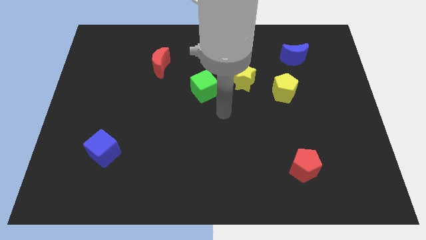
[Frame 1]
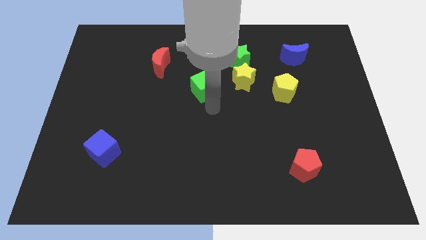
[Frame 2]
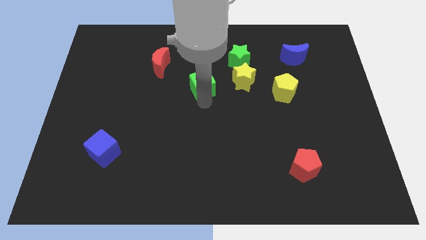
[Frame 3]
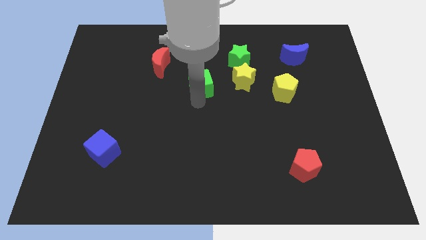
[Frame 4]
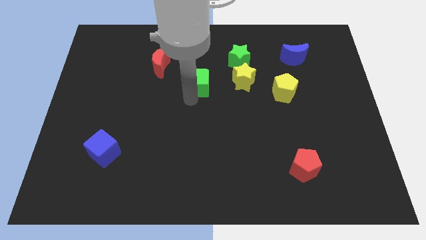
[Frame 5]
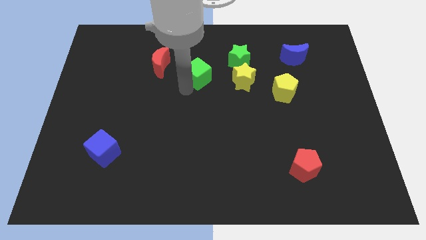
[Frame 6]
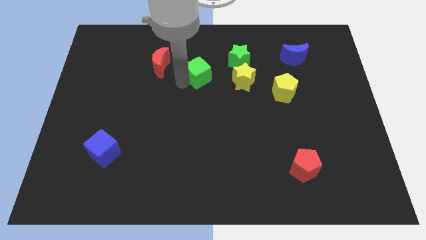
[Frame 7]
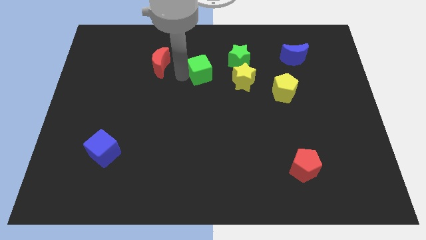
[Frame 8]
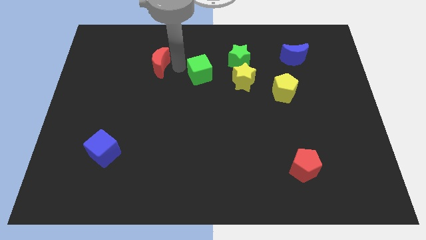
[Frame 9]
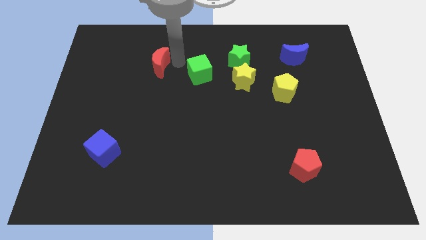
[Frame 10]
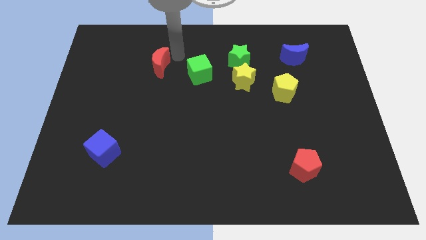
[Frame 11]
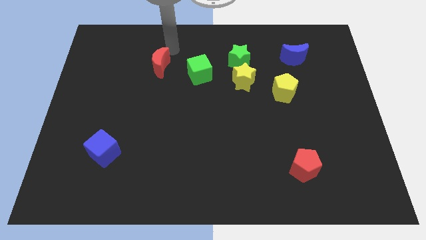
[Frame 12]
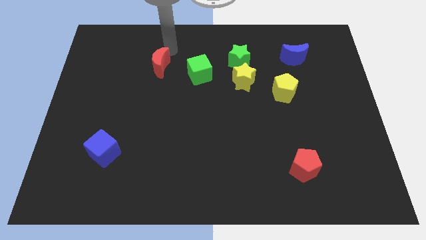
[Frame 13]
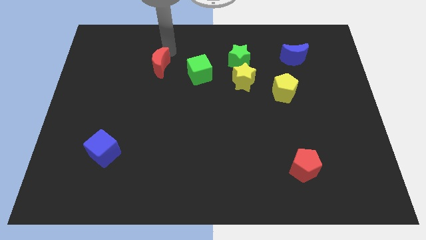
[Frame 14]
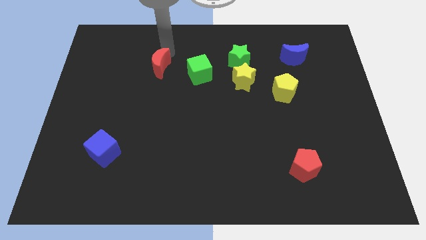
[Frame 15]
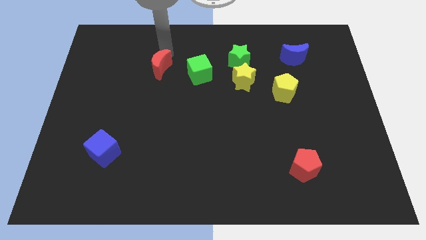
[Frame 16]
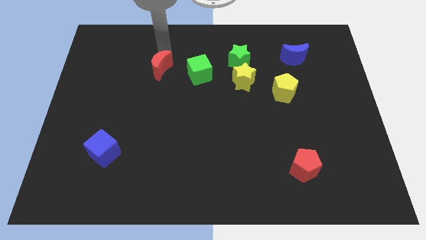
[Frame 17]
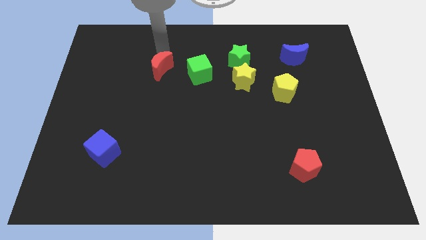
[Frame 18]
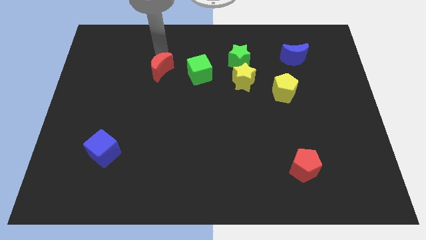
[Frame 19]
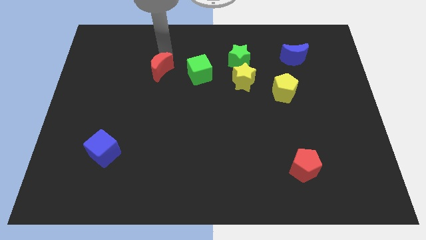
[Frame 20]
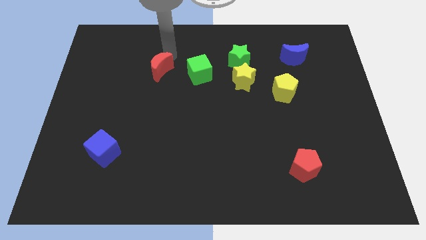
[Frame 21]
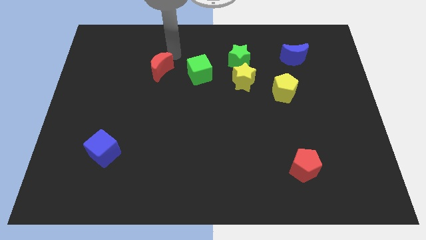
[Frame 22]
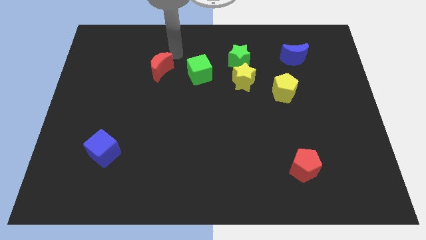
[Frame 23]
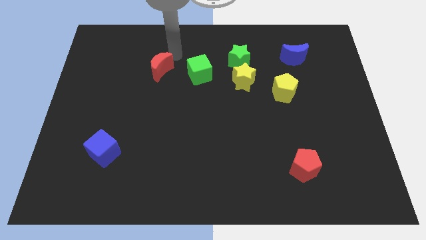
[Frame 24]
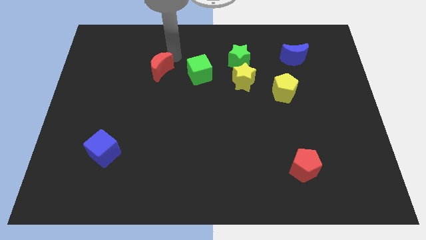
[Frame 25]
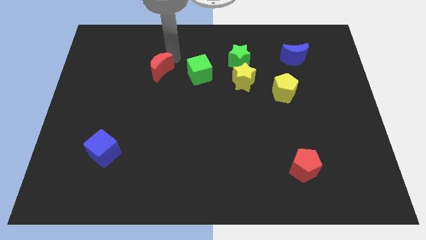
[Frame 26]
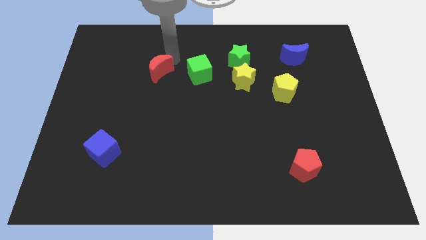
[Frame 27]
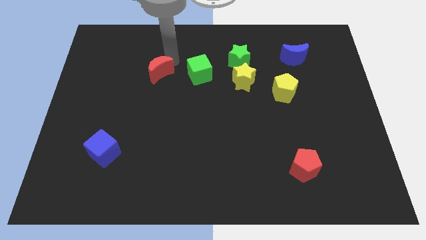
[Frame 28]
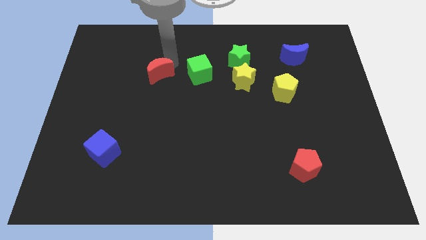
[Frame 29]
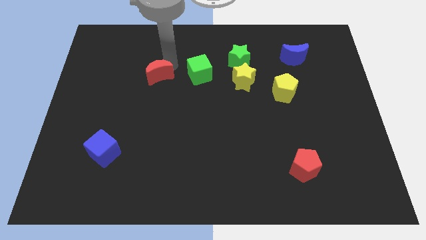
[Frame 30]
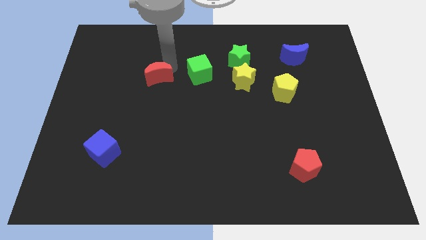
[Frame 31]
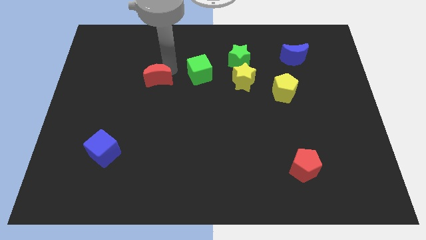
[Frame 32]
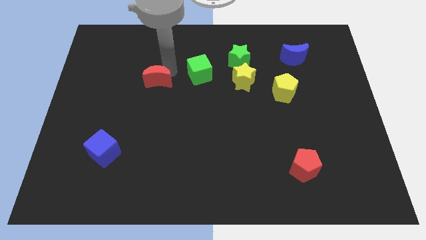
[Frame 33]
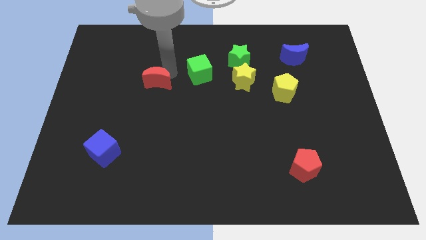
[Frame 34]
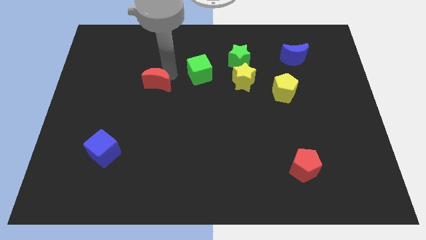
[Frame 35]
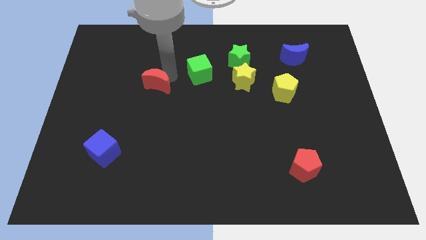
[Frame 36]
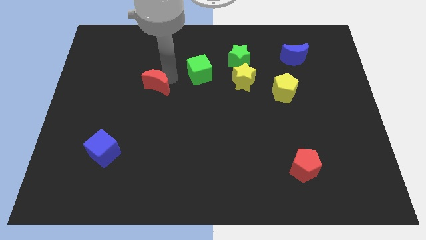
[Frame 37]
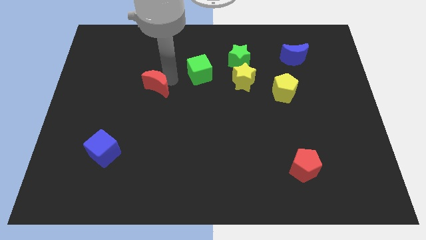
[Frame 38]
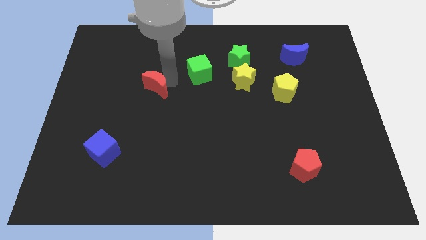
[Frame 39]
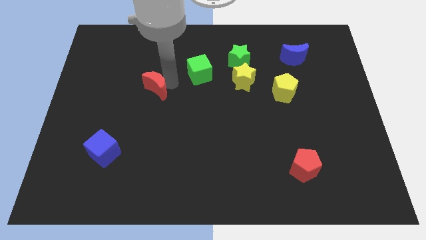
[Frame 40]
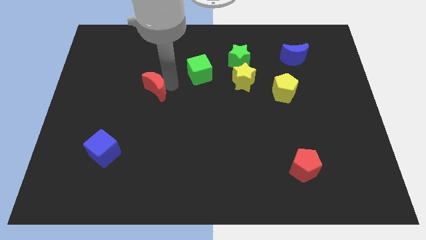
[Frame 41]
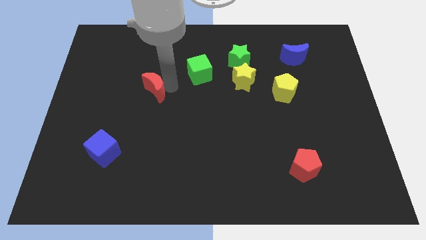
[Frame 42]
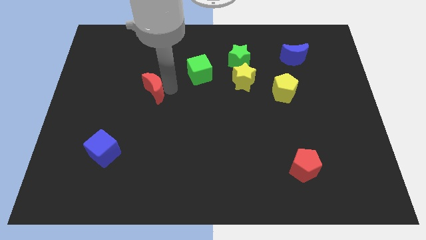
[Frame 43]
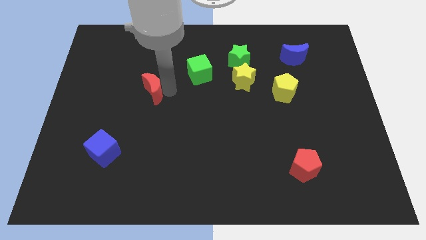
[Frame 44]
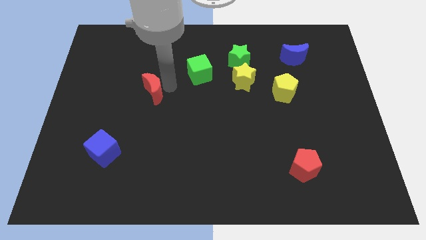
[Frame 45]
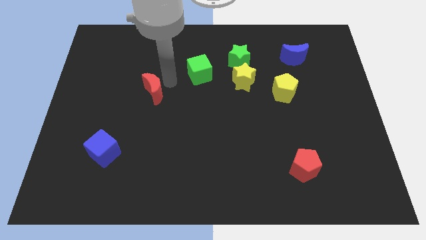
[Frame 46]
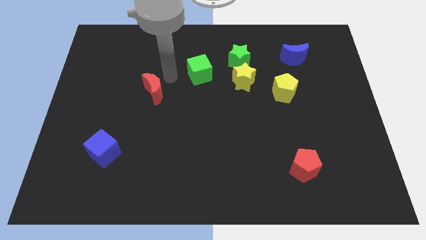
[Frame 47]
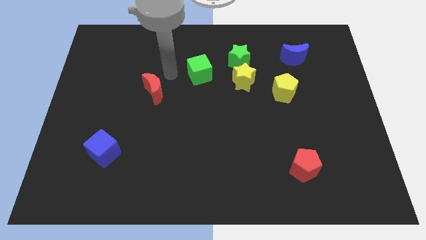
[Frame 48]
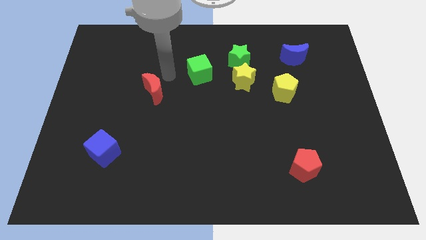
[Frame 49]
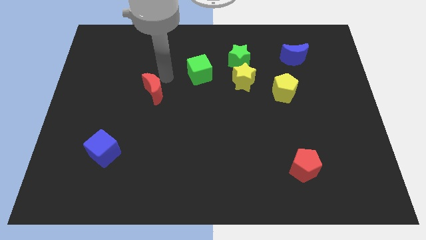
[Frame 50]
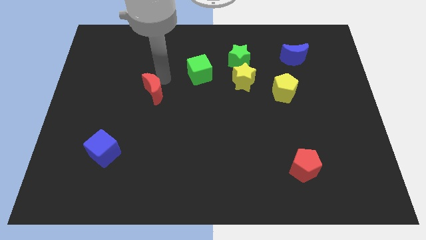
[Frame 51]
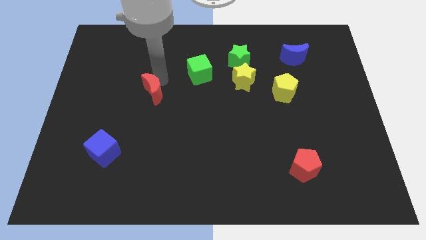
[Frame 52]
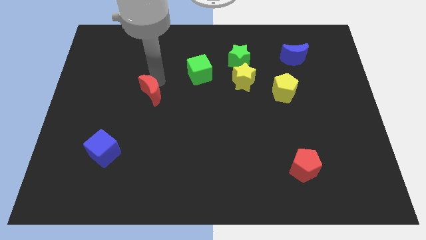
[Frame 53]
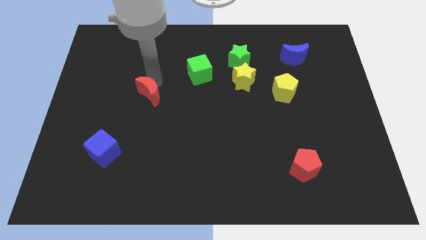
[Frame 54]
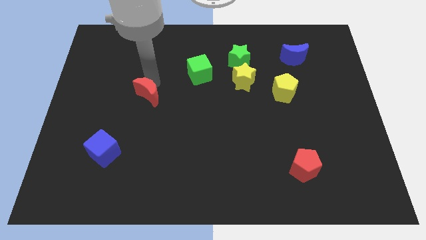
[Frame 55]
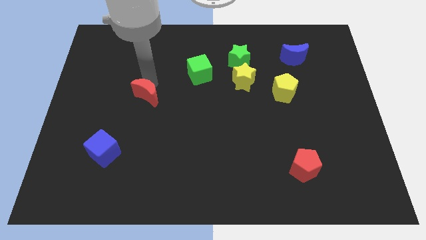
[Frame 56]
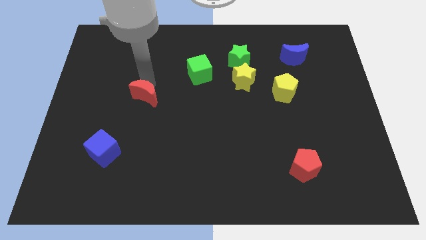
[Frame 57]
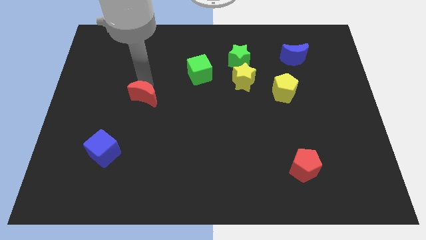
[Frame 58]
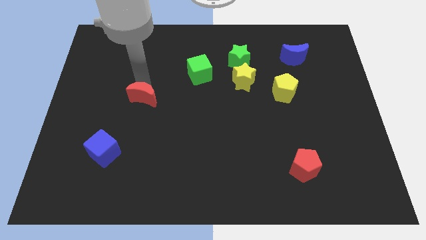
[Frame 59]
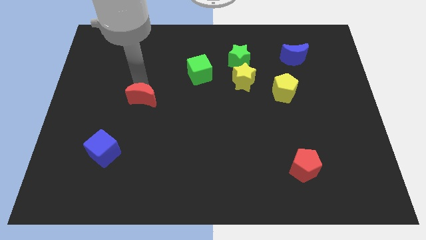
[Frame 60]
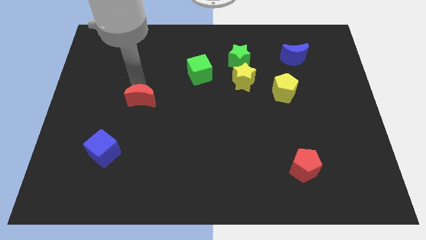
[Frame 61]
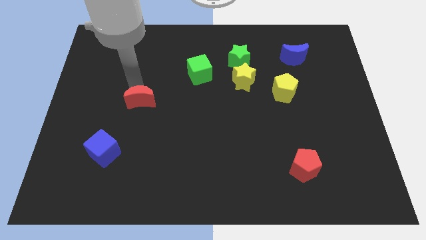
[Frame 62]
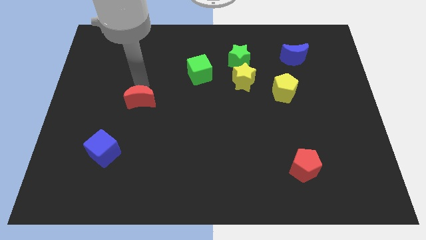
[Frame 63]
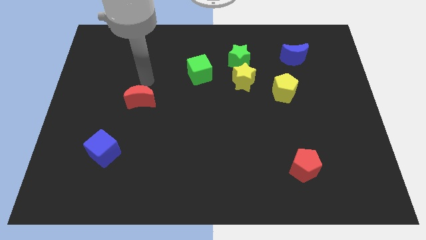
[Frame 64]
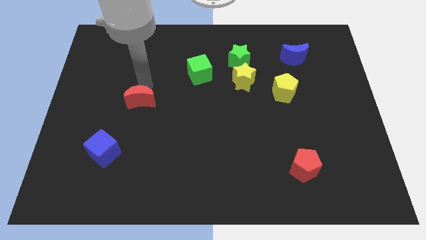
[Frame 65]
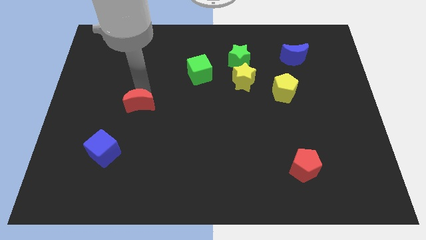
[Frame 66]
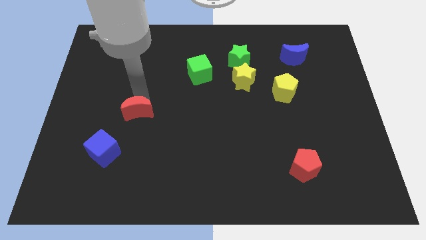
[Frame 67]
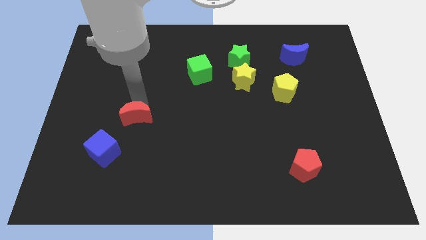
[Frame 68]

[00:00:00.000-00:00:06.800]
put the red moon to the top right side of the blue cube
